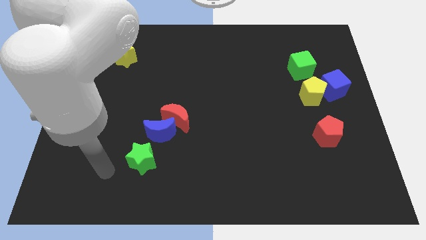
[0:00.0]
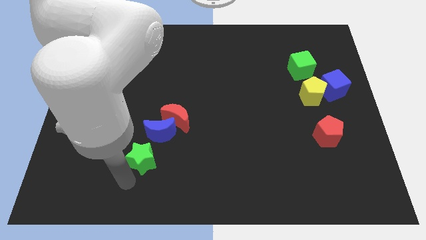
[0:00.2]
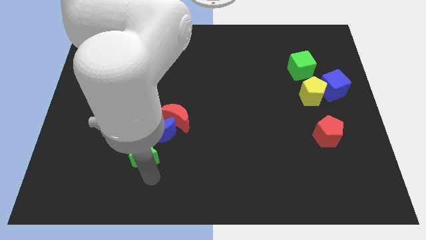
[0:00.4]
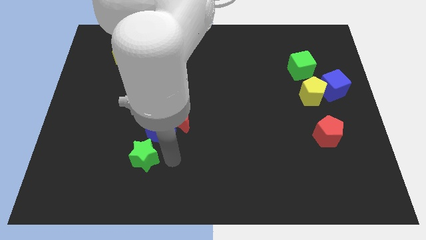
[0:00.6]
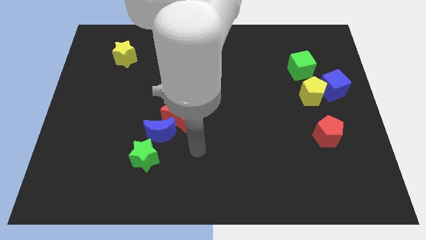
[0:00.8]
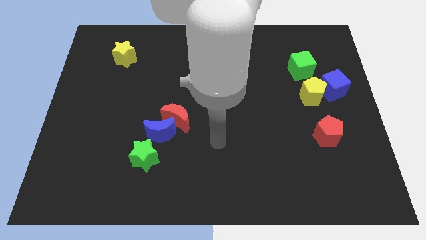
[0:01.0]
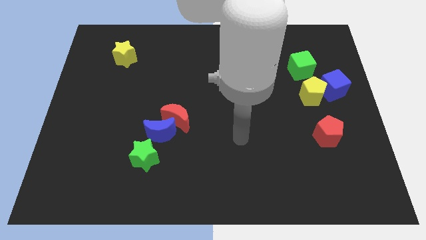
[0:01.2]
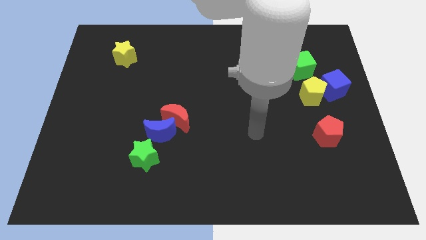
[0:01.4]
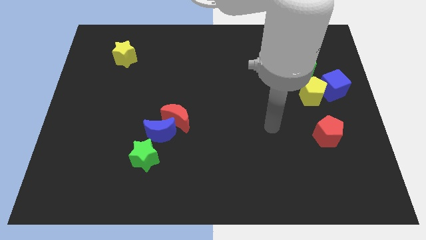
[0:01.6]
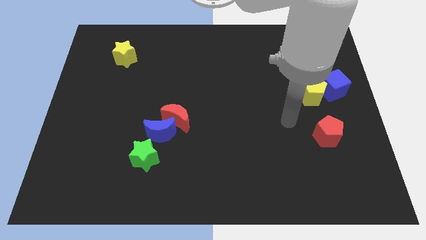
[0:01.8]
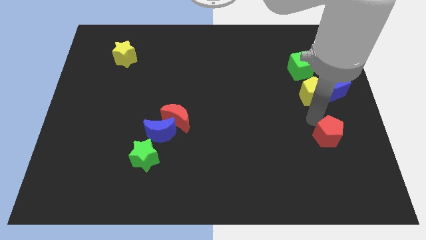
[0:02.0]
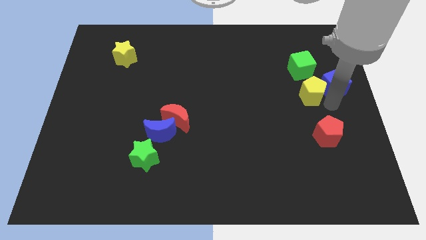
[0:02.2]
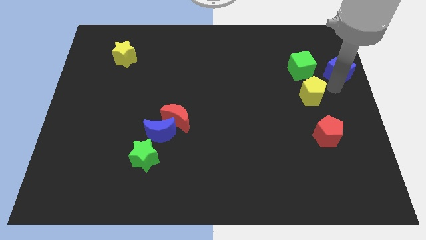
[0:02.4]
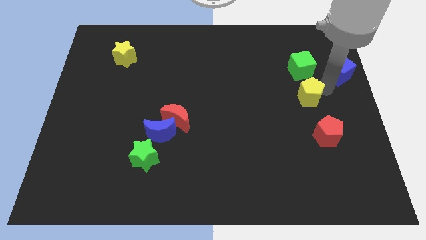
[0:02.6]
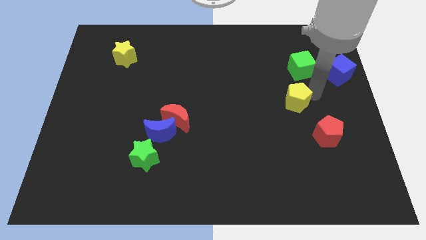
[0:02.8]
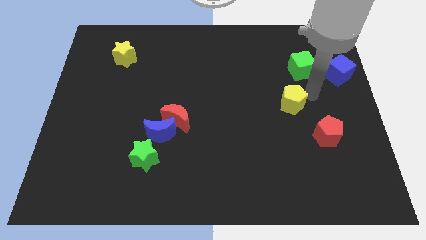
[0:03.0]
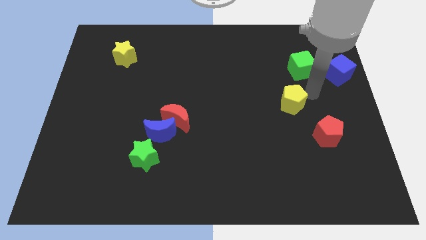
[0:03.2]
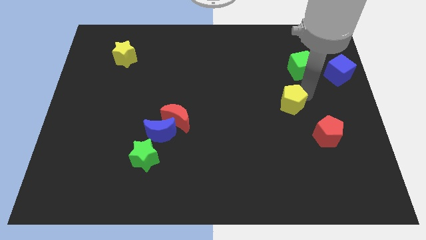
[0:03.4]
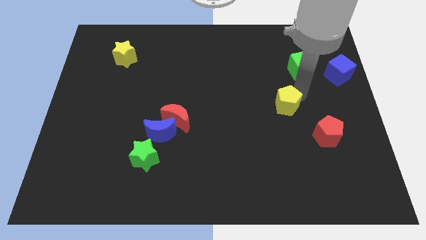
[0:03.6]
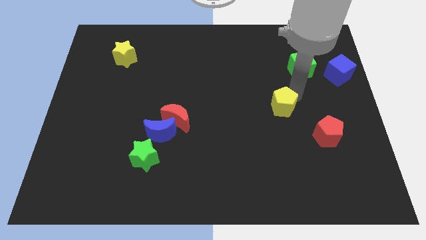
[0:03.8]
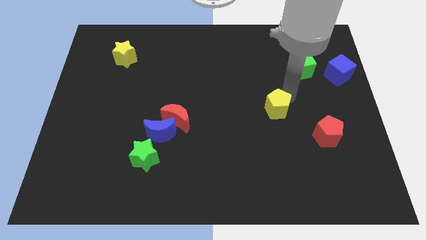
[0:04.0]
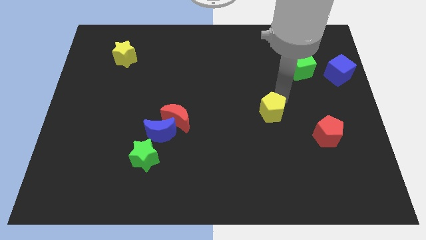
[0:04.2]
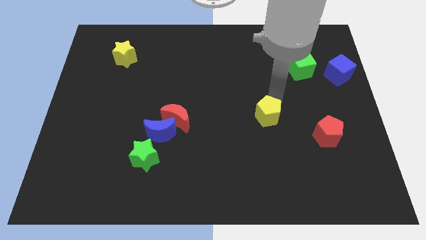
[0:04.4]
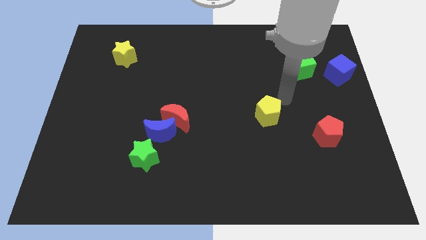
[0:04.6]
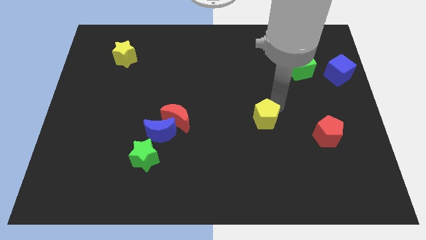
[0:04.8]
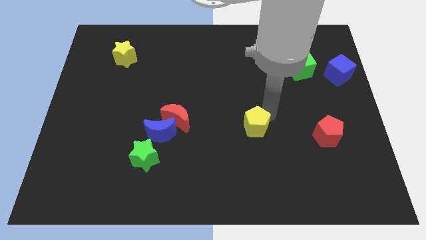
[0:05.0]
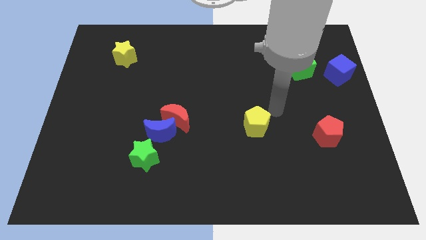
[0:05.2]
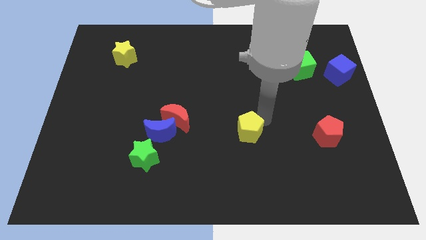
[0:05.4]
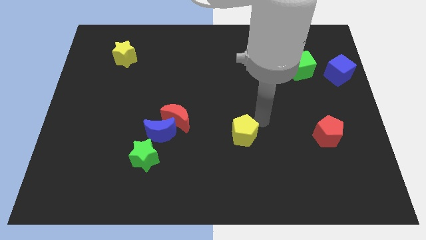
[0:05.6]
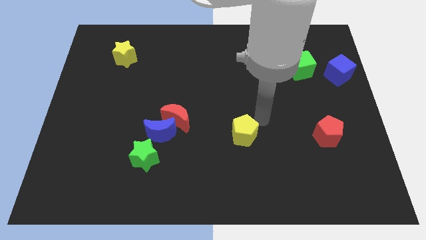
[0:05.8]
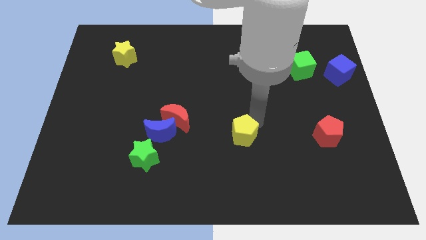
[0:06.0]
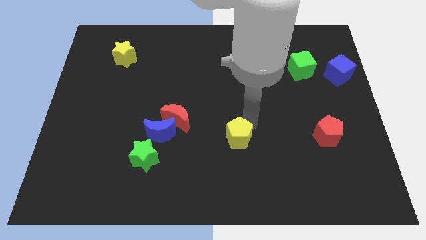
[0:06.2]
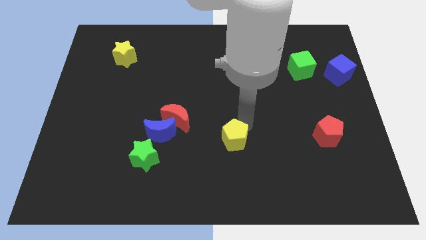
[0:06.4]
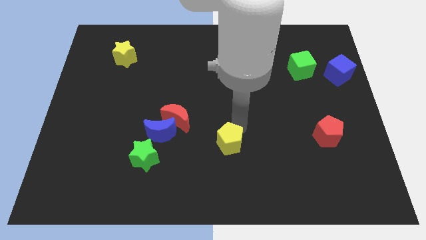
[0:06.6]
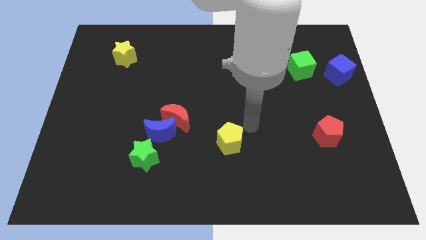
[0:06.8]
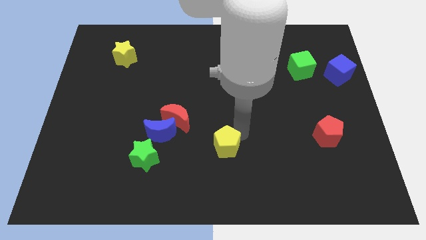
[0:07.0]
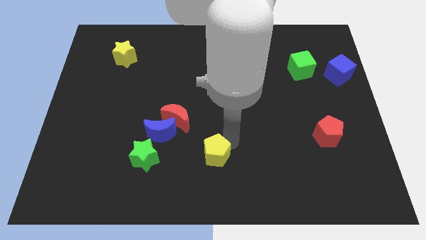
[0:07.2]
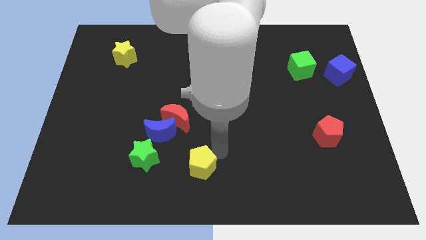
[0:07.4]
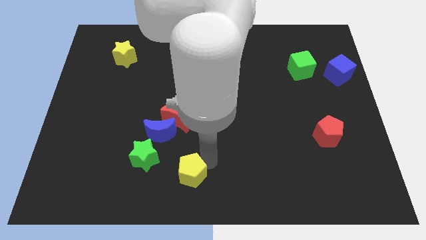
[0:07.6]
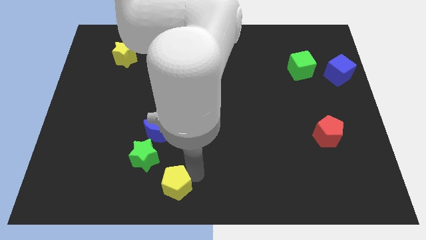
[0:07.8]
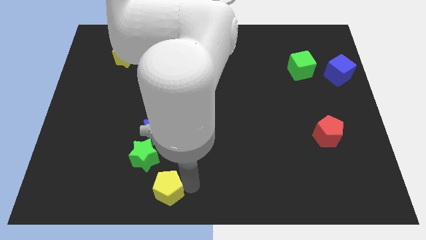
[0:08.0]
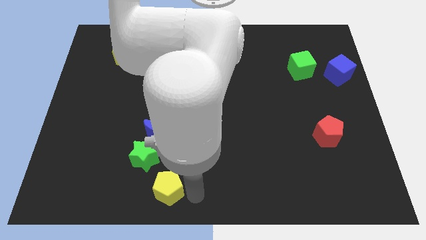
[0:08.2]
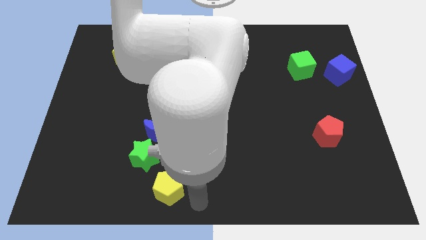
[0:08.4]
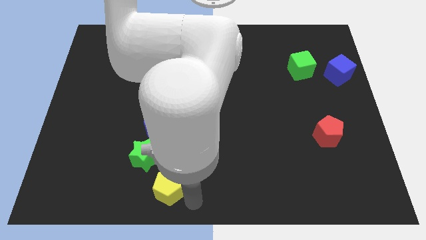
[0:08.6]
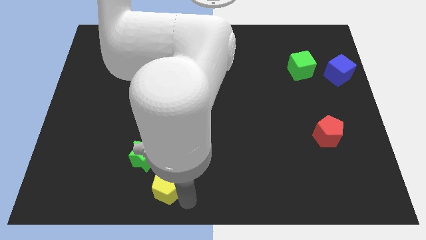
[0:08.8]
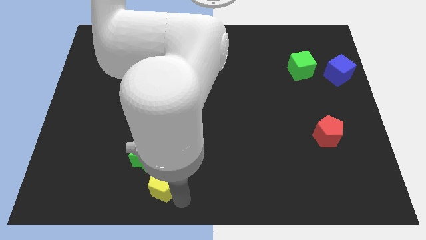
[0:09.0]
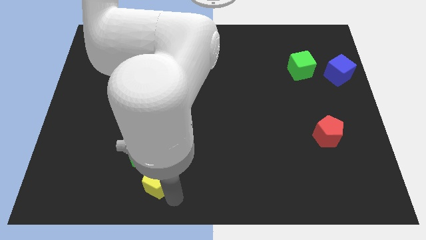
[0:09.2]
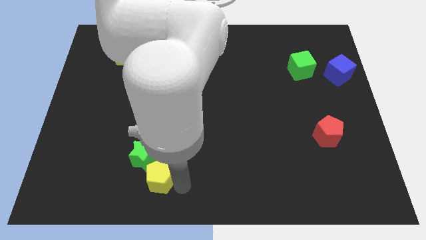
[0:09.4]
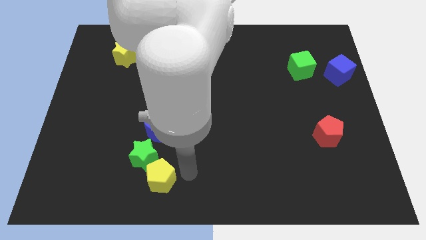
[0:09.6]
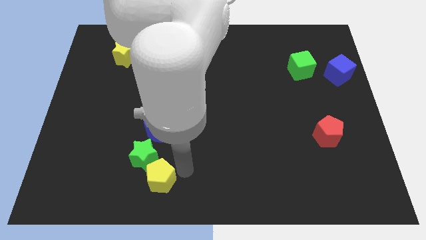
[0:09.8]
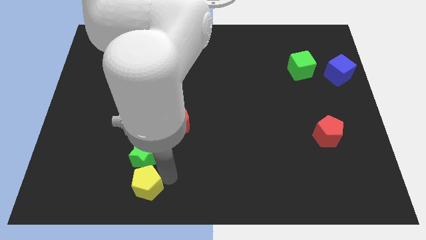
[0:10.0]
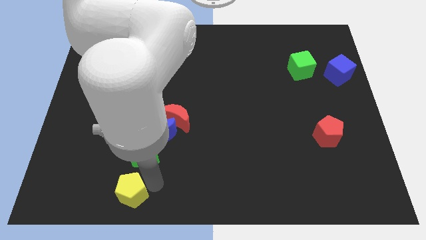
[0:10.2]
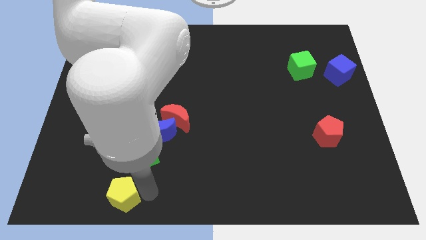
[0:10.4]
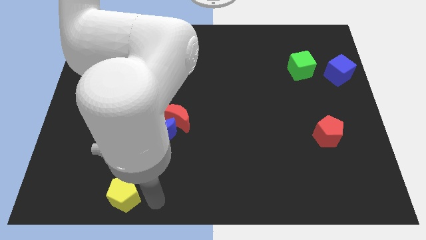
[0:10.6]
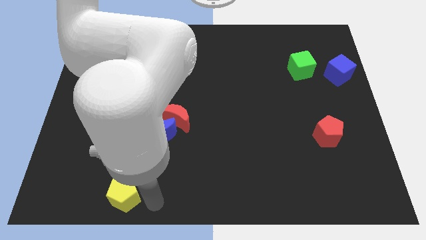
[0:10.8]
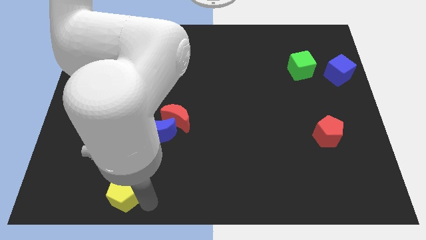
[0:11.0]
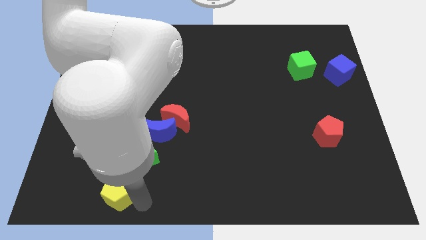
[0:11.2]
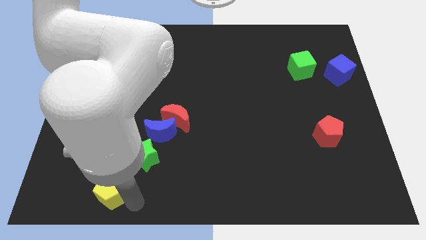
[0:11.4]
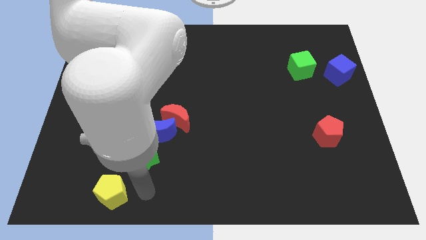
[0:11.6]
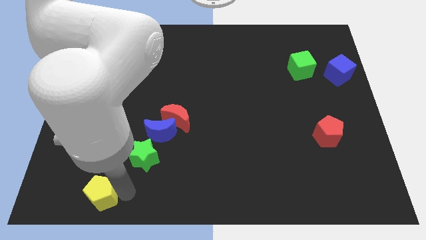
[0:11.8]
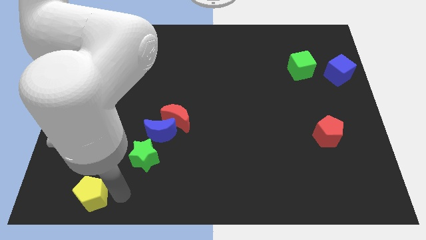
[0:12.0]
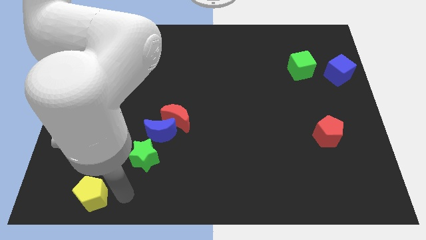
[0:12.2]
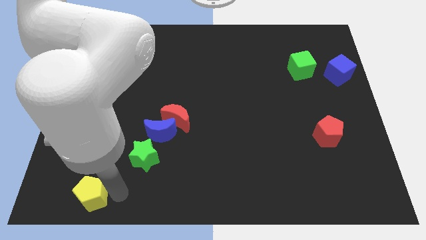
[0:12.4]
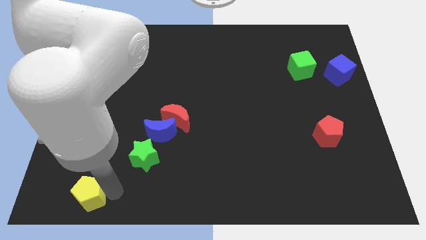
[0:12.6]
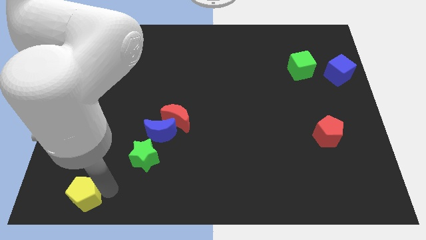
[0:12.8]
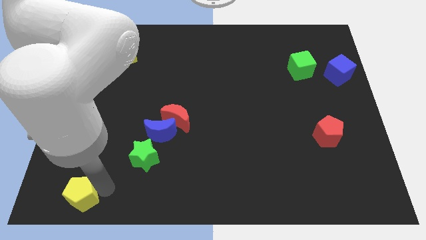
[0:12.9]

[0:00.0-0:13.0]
put the yellow pentagon to the bottom left of the board
